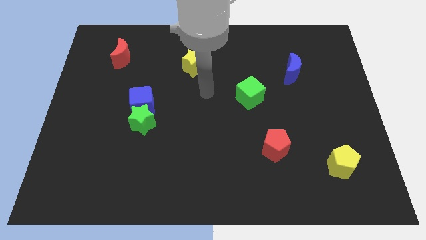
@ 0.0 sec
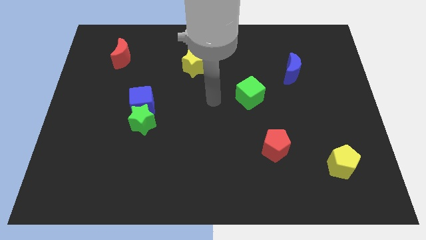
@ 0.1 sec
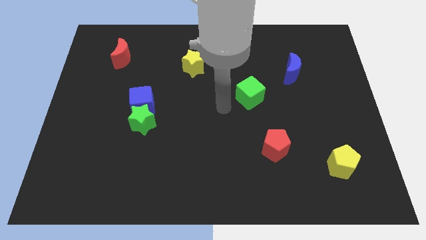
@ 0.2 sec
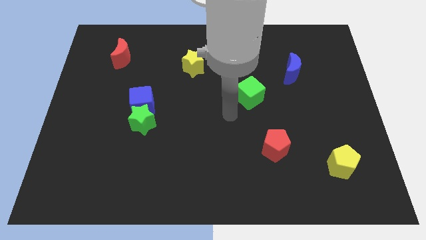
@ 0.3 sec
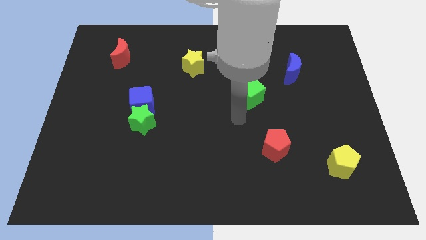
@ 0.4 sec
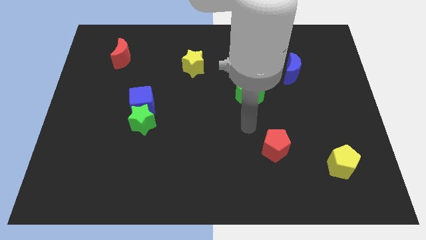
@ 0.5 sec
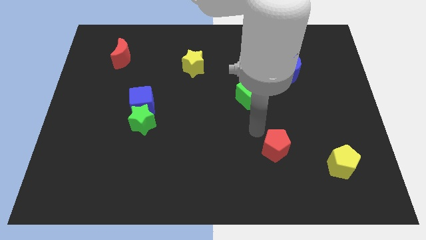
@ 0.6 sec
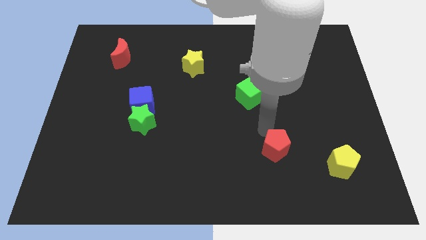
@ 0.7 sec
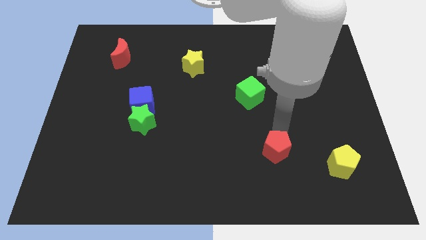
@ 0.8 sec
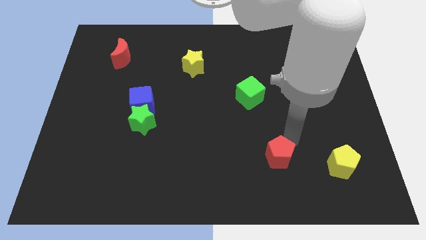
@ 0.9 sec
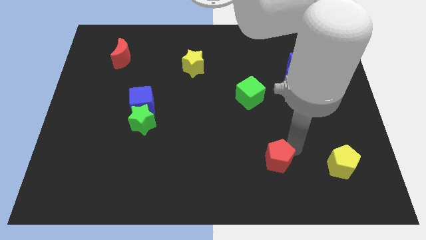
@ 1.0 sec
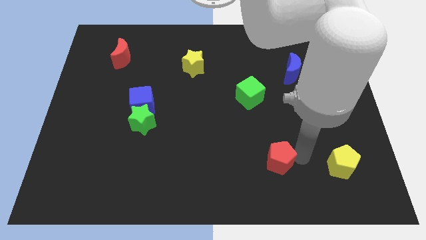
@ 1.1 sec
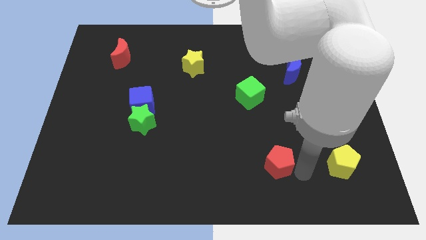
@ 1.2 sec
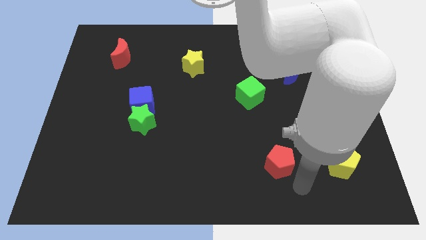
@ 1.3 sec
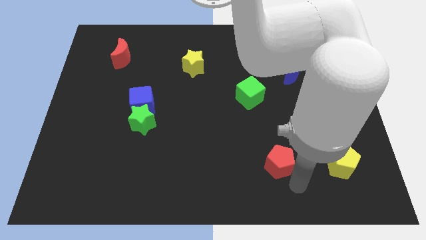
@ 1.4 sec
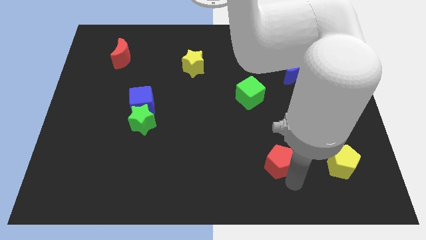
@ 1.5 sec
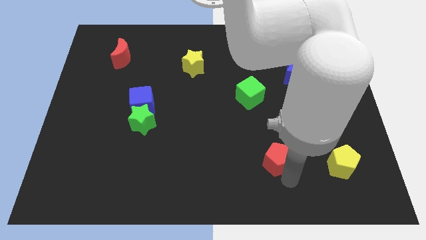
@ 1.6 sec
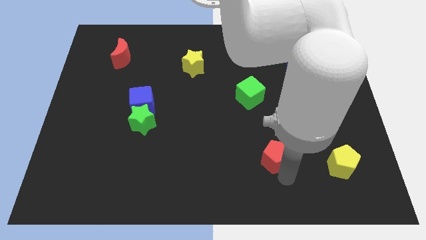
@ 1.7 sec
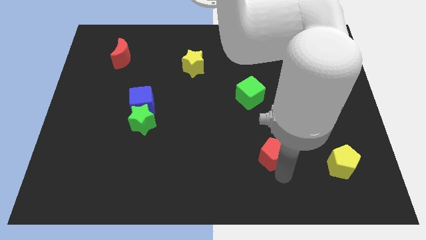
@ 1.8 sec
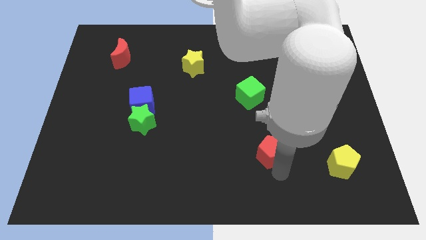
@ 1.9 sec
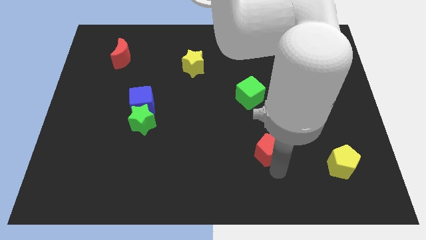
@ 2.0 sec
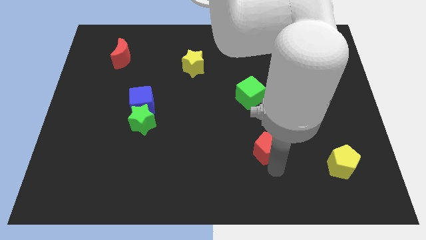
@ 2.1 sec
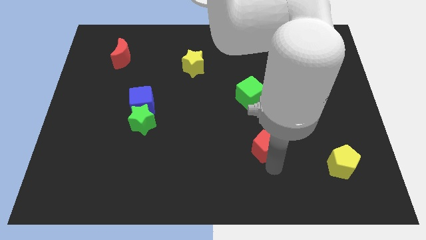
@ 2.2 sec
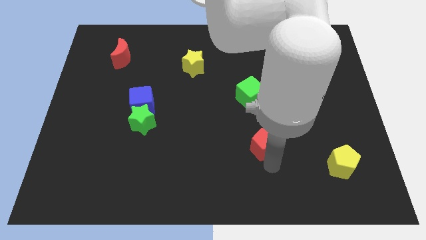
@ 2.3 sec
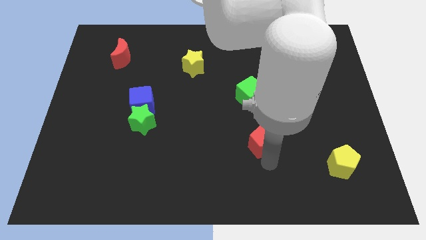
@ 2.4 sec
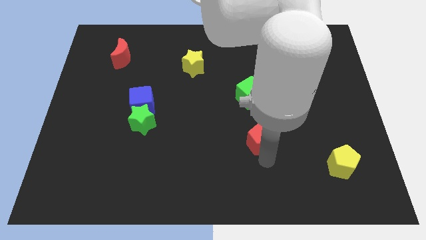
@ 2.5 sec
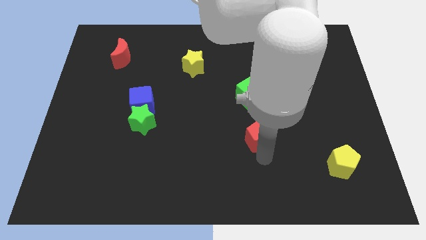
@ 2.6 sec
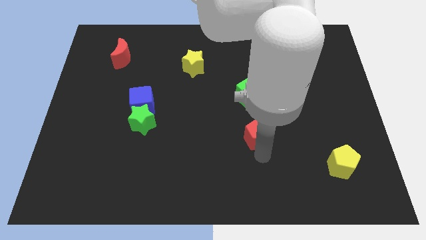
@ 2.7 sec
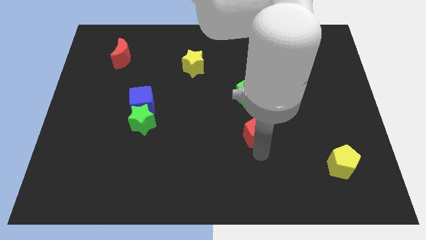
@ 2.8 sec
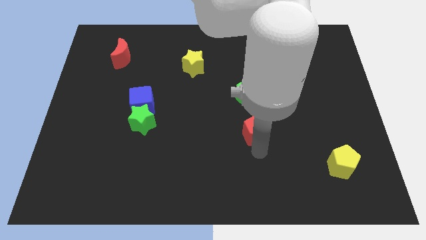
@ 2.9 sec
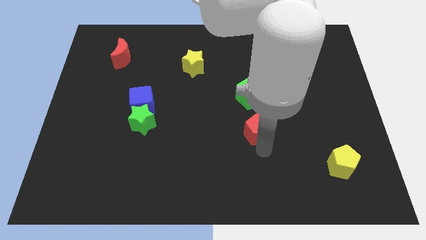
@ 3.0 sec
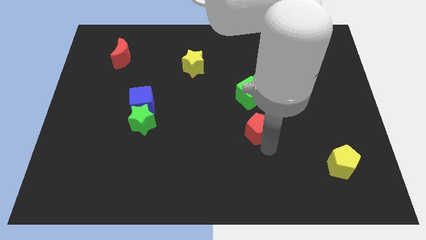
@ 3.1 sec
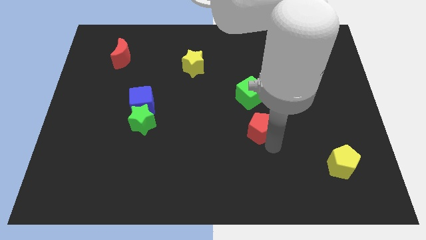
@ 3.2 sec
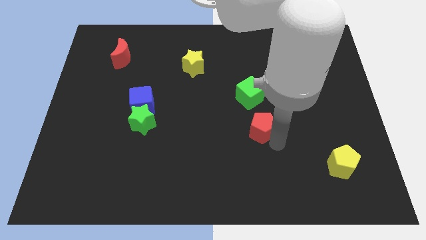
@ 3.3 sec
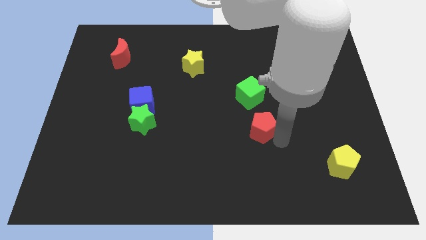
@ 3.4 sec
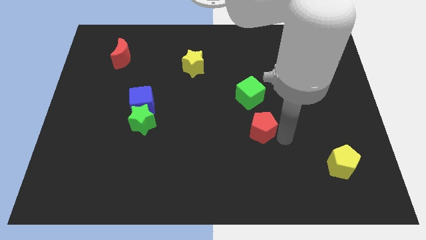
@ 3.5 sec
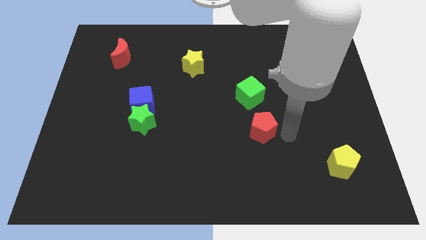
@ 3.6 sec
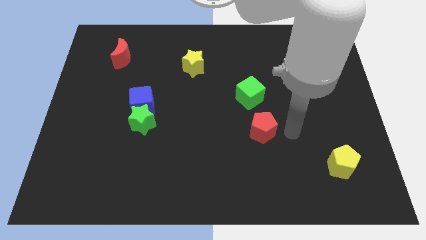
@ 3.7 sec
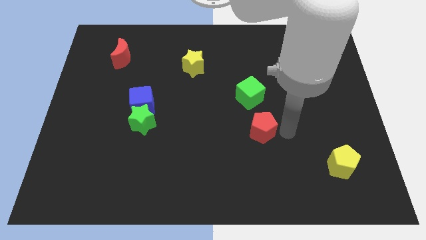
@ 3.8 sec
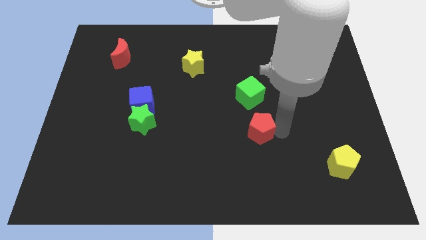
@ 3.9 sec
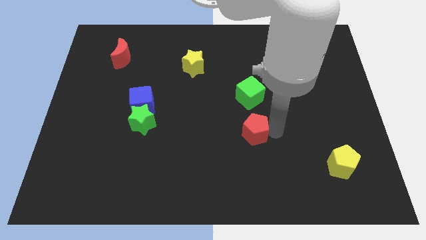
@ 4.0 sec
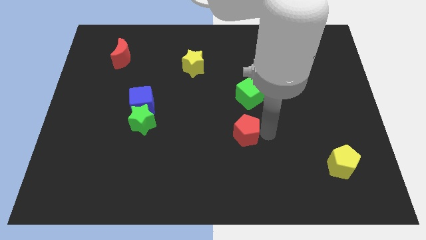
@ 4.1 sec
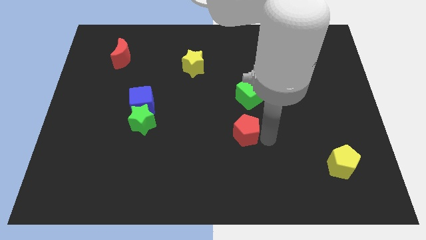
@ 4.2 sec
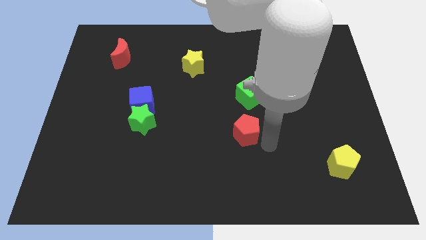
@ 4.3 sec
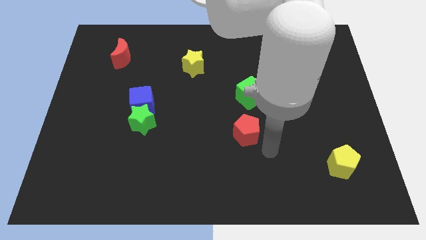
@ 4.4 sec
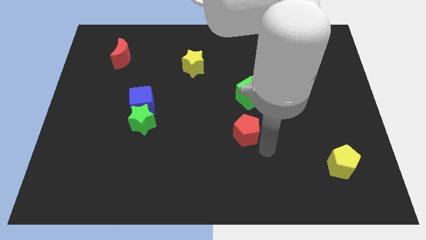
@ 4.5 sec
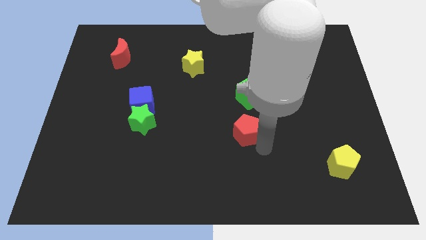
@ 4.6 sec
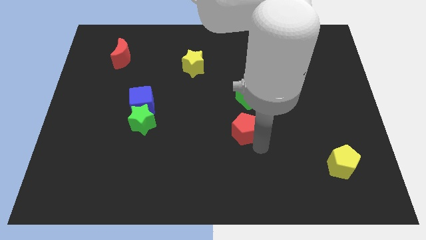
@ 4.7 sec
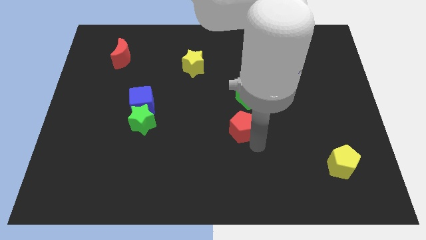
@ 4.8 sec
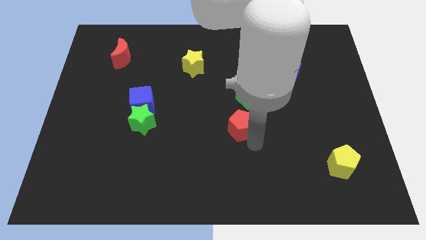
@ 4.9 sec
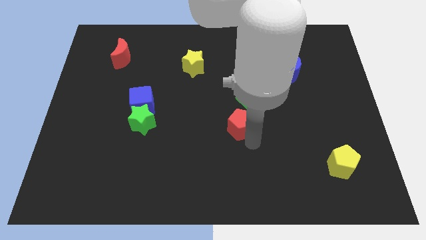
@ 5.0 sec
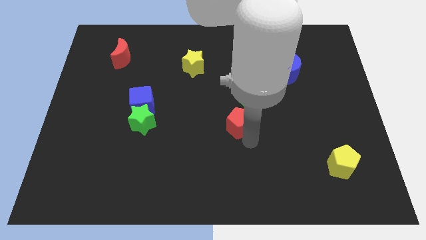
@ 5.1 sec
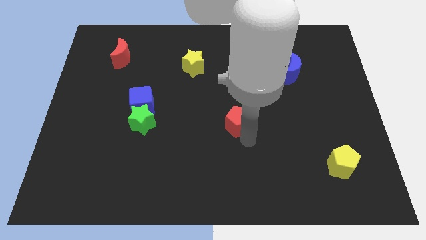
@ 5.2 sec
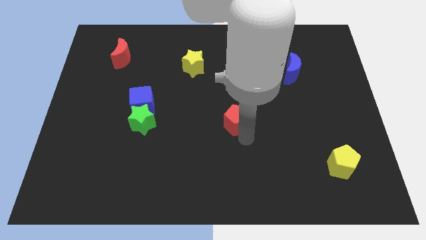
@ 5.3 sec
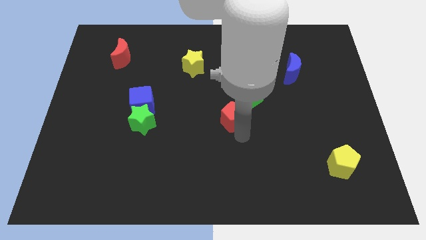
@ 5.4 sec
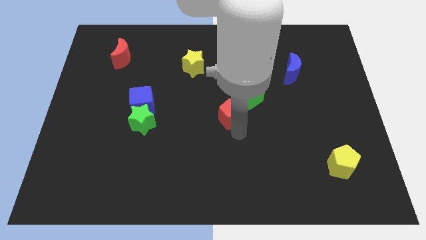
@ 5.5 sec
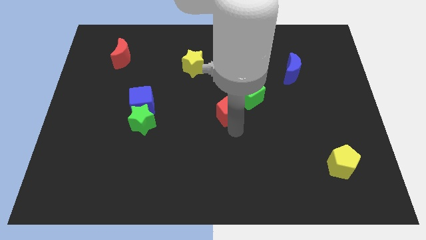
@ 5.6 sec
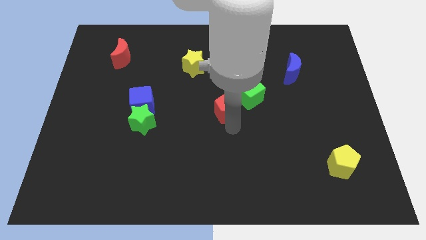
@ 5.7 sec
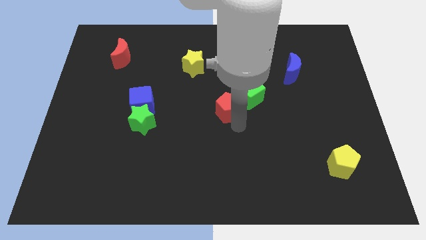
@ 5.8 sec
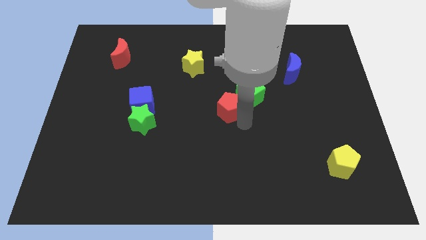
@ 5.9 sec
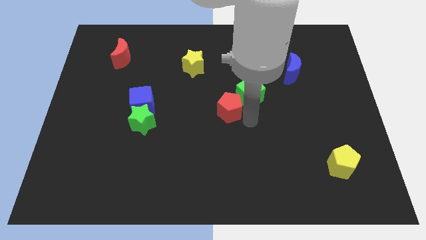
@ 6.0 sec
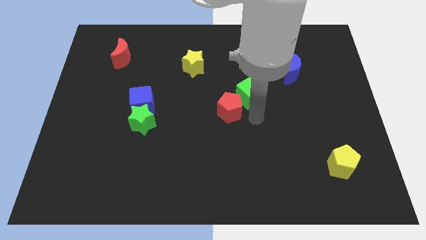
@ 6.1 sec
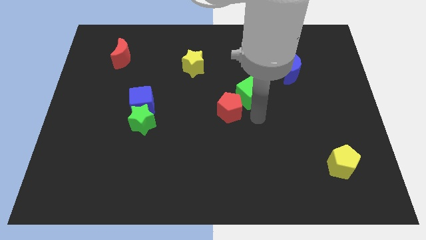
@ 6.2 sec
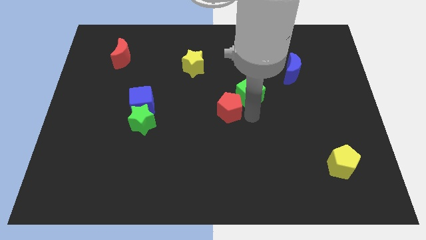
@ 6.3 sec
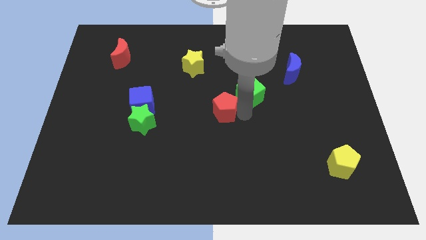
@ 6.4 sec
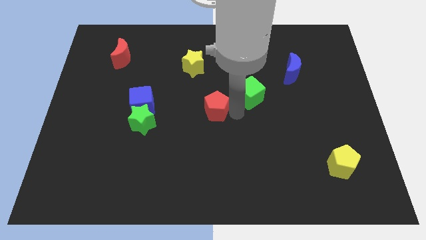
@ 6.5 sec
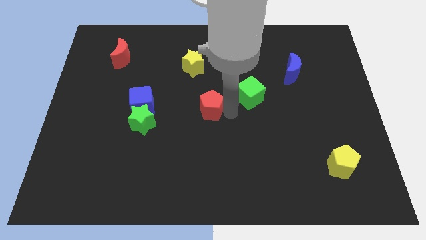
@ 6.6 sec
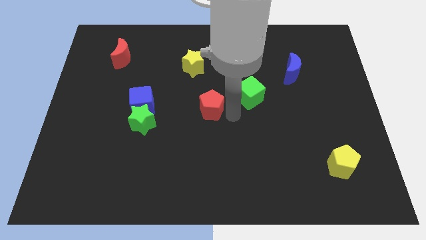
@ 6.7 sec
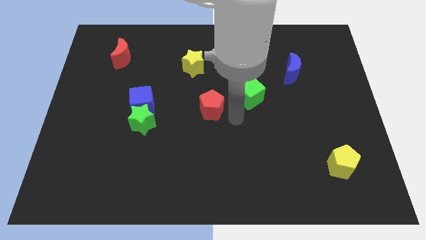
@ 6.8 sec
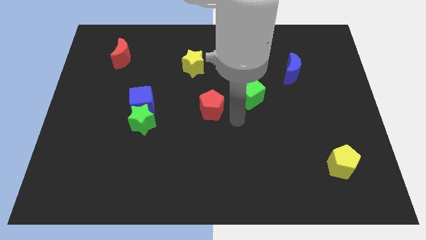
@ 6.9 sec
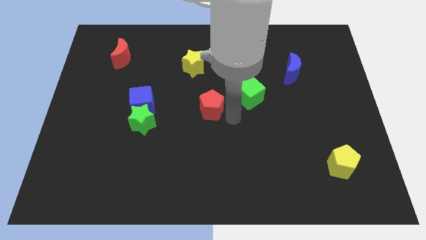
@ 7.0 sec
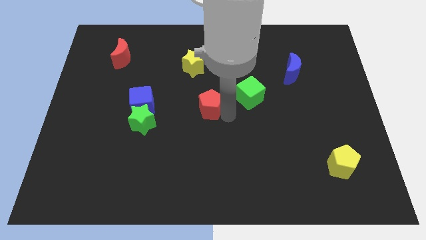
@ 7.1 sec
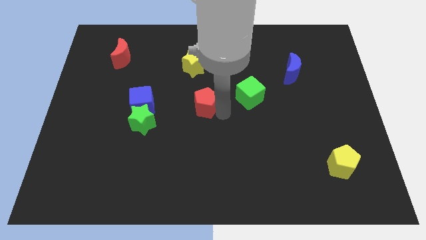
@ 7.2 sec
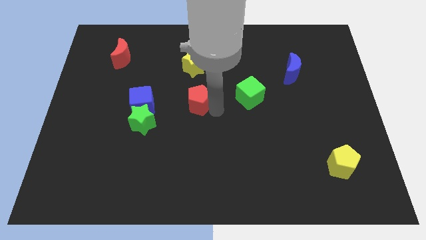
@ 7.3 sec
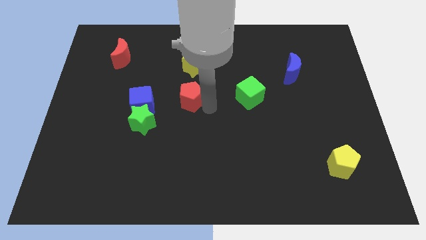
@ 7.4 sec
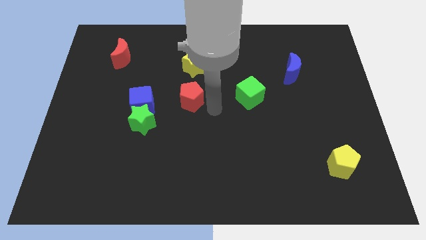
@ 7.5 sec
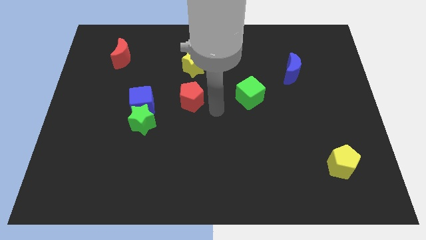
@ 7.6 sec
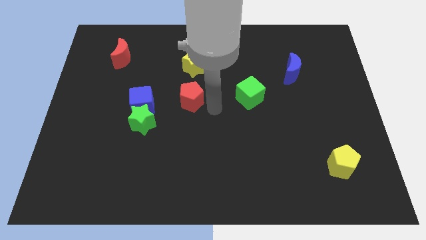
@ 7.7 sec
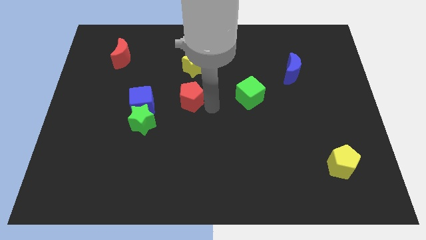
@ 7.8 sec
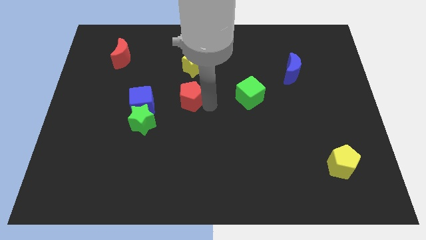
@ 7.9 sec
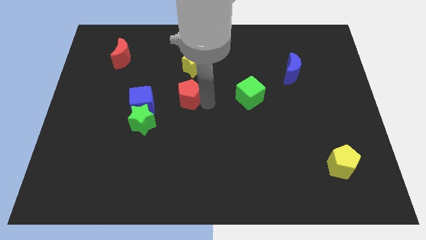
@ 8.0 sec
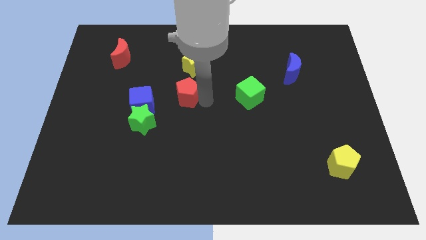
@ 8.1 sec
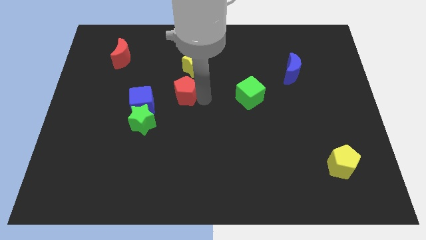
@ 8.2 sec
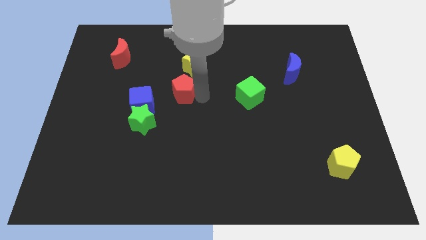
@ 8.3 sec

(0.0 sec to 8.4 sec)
push the red pentagon to the top right side of the blue cube
